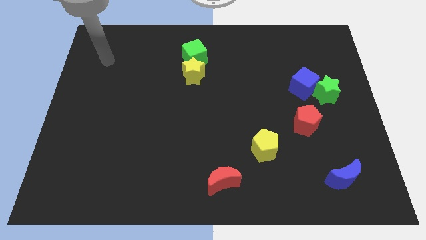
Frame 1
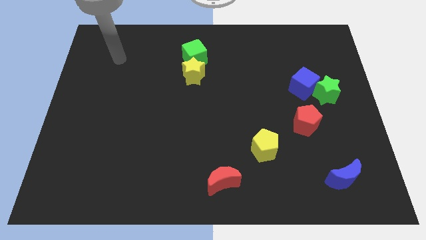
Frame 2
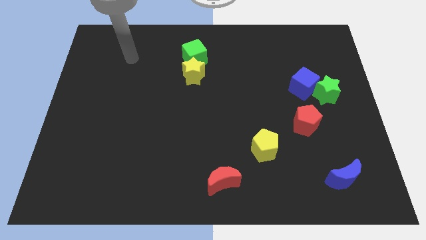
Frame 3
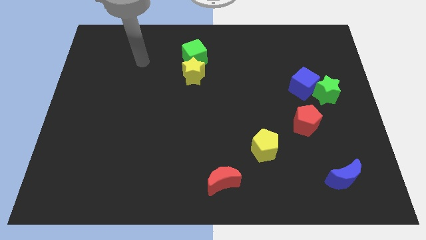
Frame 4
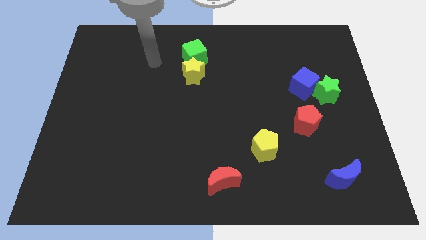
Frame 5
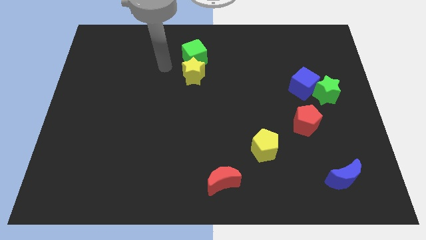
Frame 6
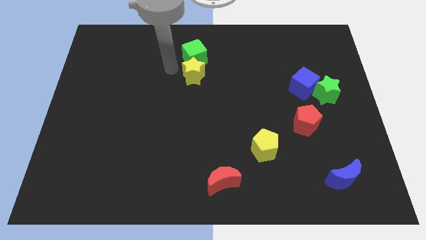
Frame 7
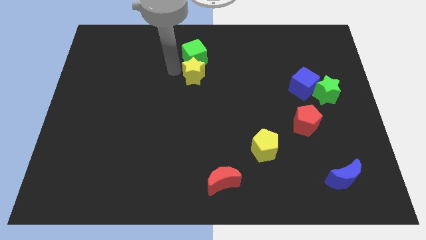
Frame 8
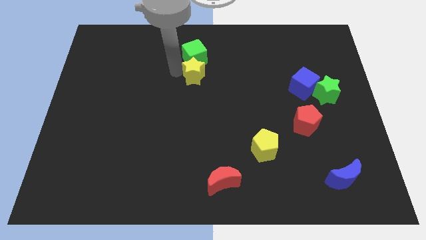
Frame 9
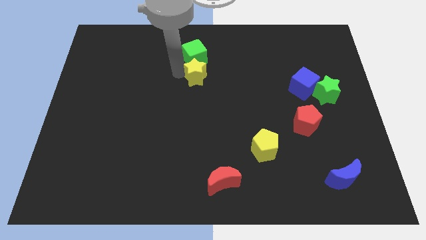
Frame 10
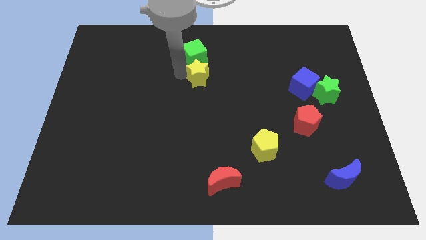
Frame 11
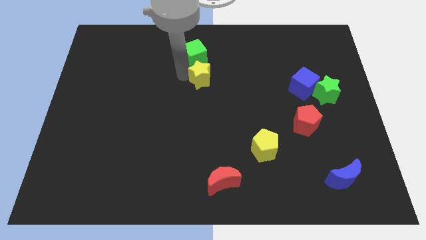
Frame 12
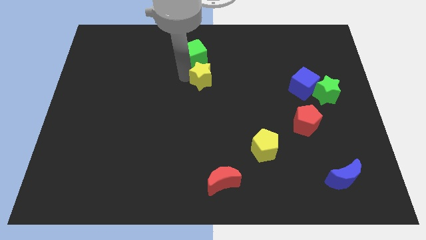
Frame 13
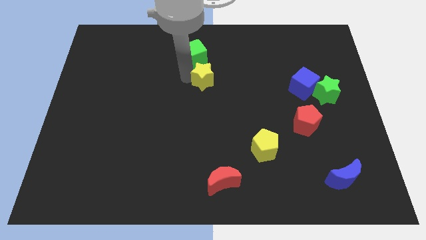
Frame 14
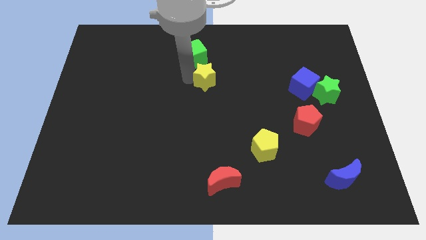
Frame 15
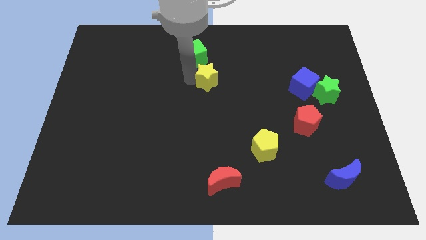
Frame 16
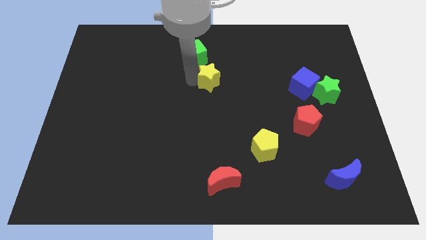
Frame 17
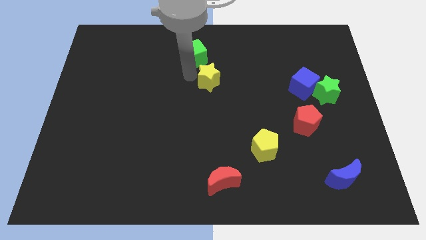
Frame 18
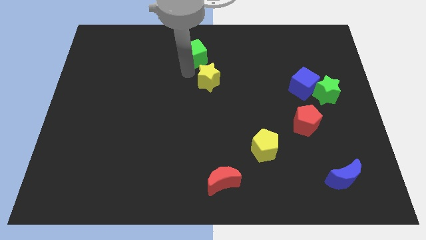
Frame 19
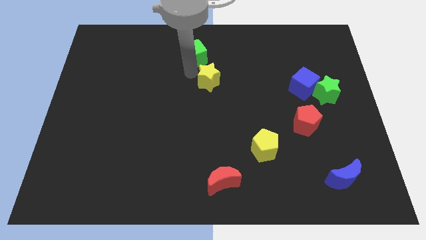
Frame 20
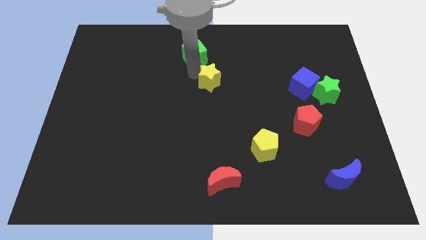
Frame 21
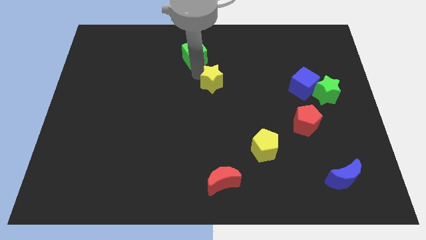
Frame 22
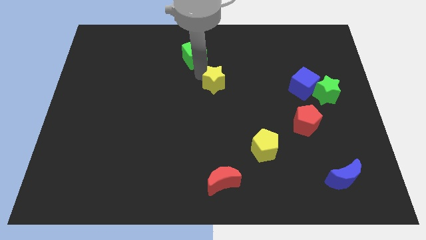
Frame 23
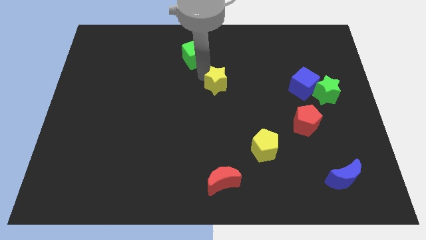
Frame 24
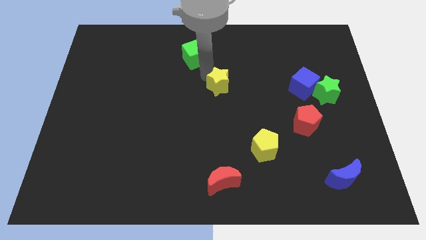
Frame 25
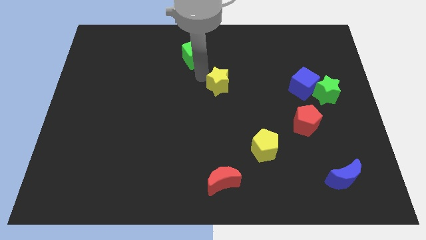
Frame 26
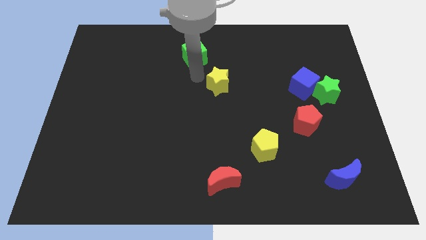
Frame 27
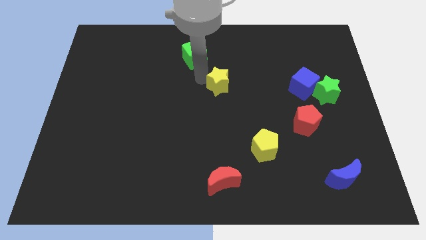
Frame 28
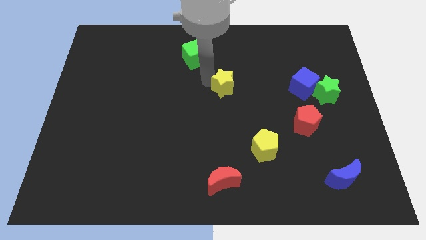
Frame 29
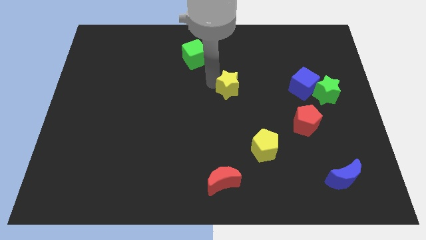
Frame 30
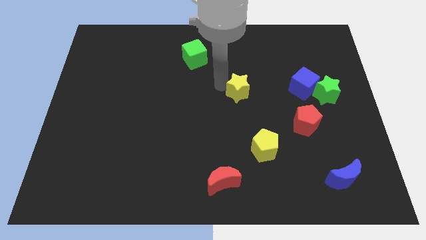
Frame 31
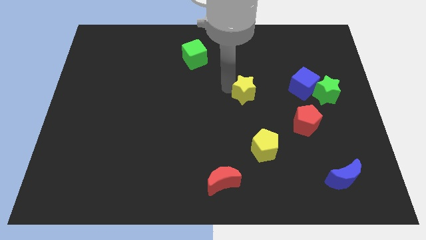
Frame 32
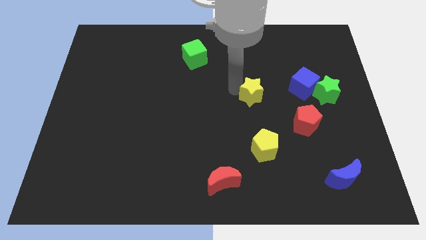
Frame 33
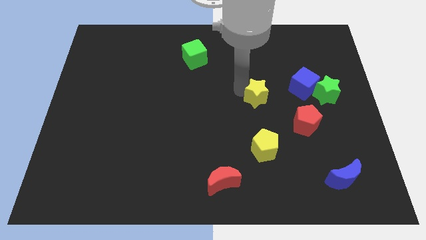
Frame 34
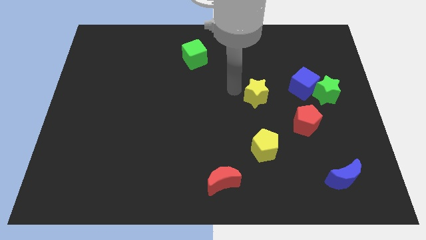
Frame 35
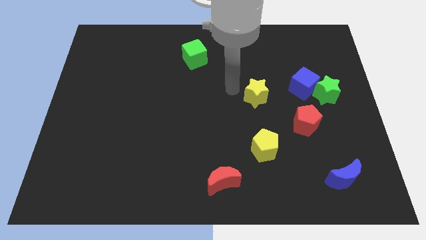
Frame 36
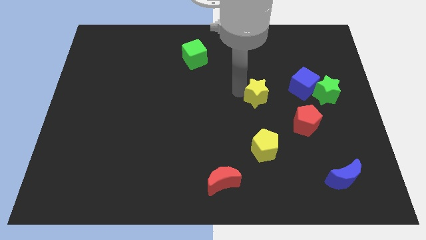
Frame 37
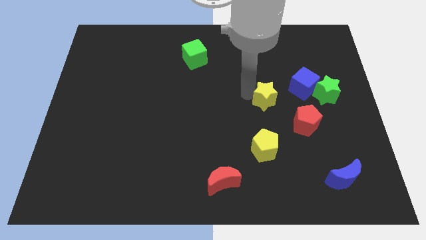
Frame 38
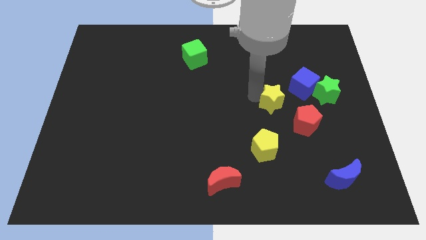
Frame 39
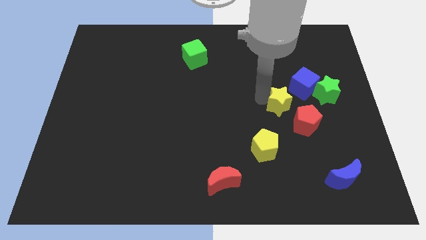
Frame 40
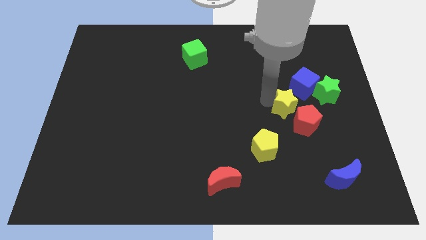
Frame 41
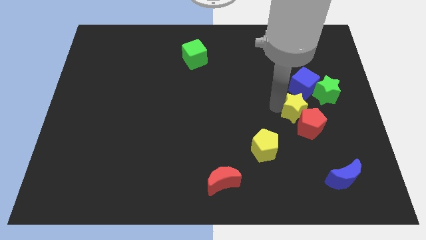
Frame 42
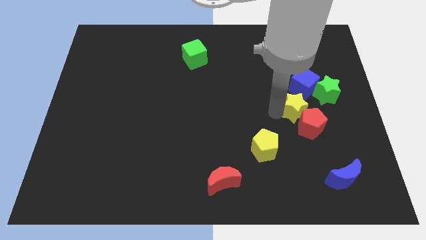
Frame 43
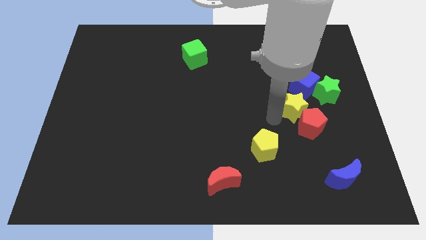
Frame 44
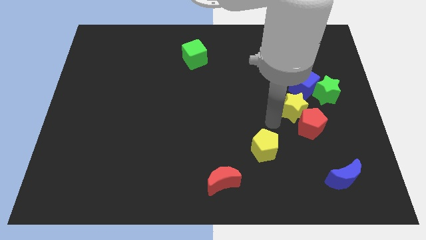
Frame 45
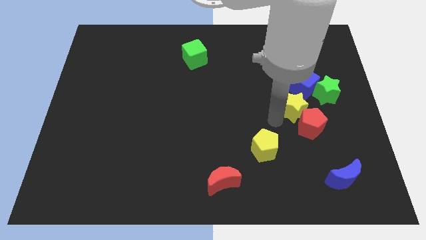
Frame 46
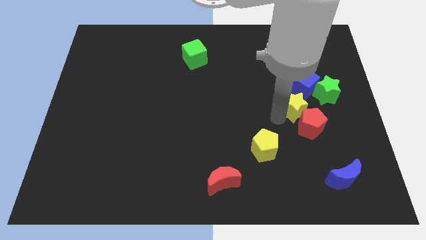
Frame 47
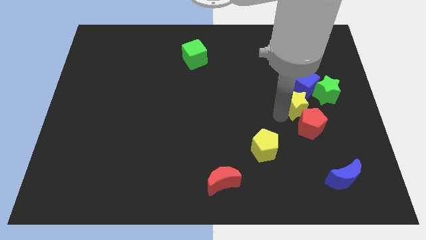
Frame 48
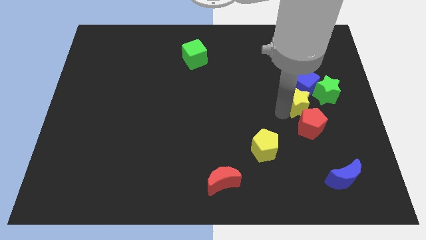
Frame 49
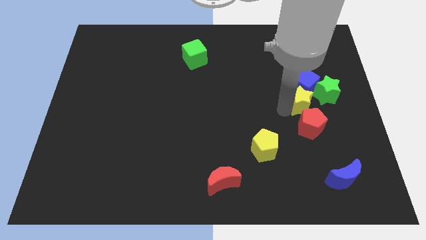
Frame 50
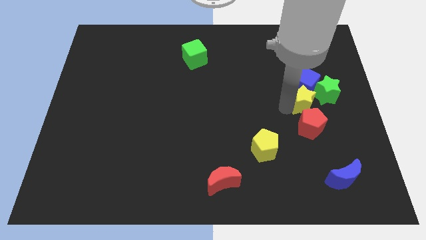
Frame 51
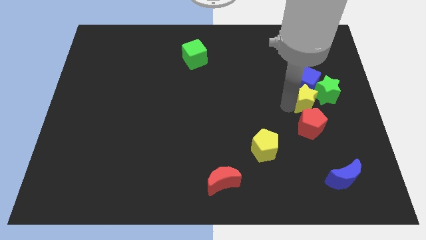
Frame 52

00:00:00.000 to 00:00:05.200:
put the yellow star next to the green star
